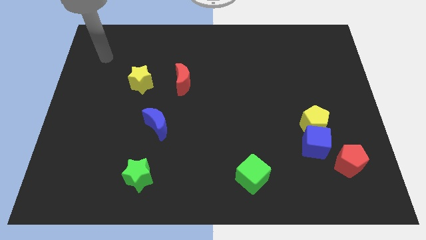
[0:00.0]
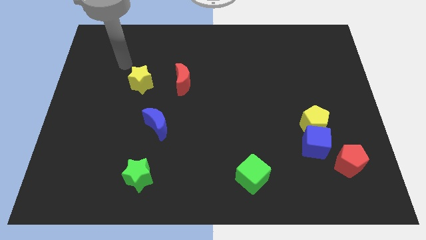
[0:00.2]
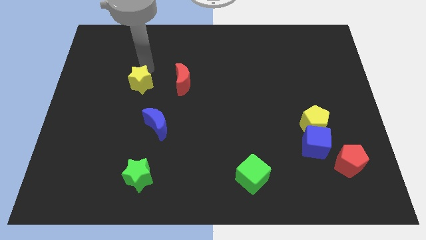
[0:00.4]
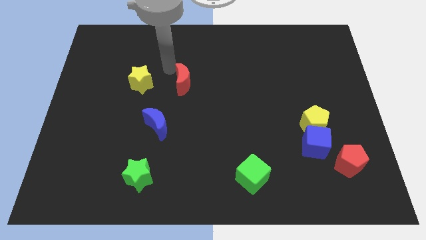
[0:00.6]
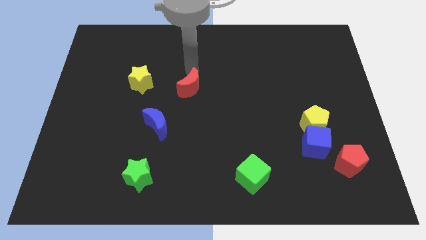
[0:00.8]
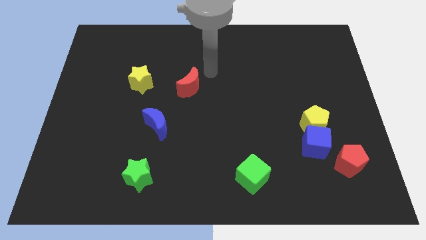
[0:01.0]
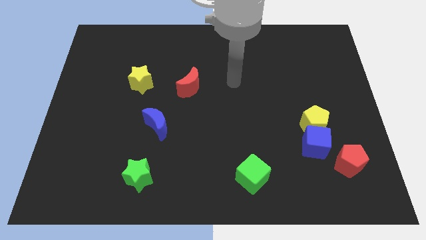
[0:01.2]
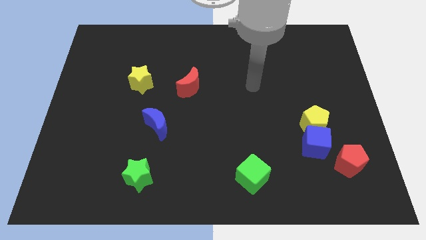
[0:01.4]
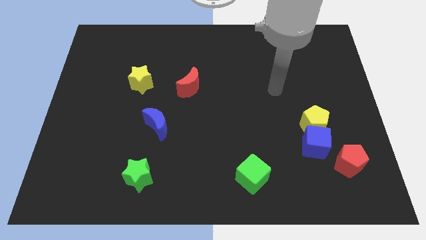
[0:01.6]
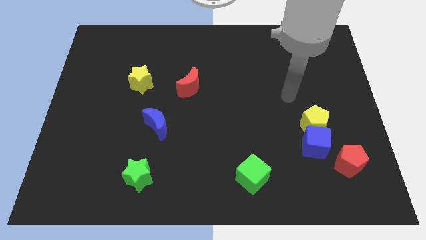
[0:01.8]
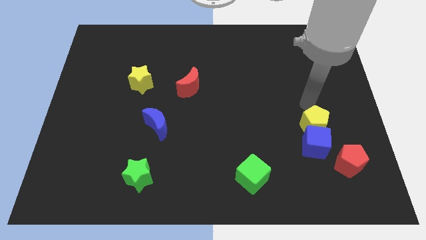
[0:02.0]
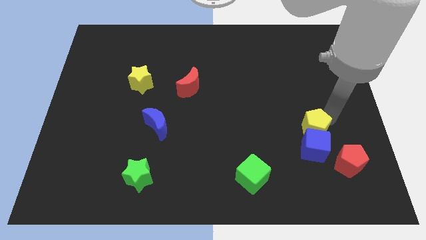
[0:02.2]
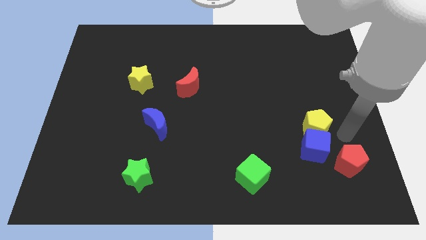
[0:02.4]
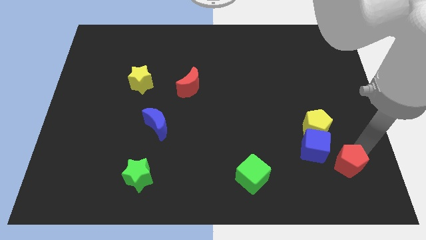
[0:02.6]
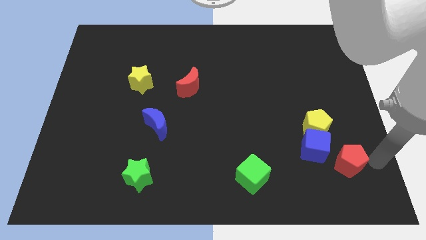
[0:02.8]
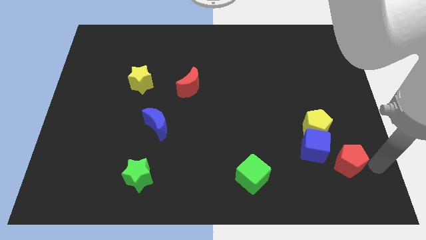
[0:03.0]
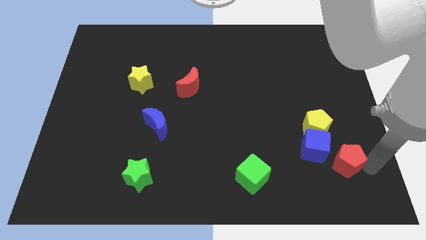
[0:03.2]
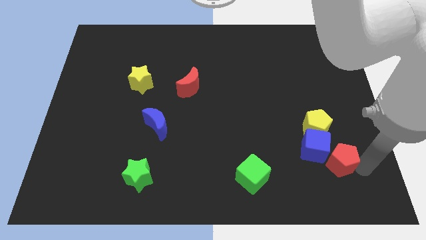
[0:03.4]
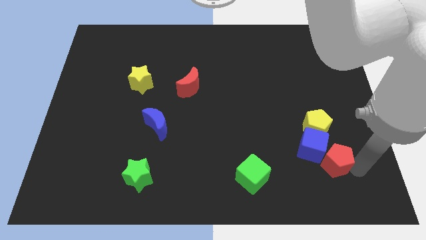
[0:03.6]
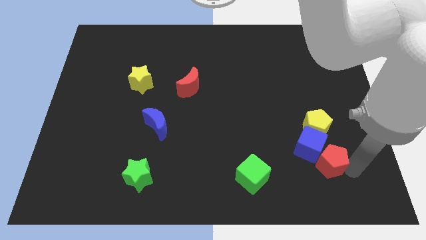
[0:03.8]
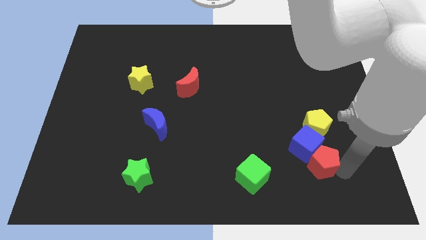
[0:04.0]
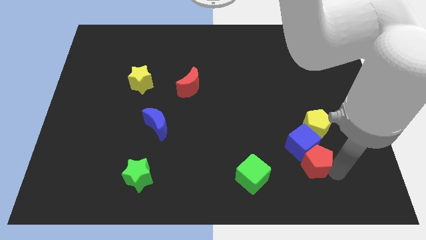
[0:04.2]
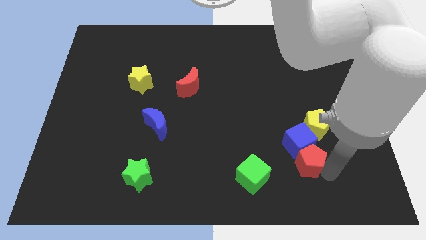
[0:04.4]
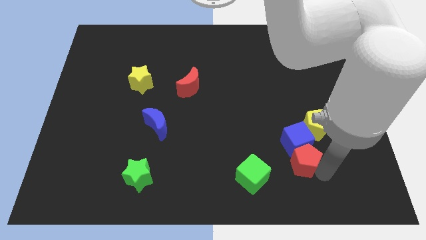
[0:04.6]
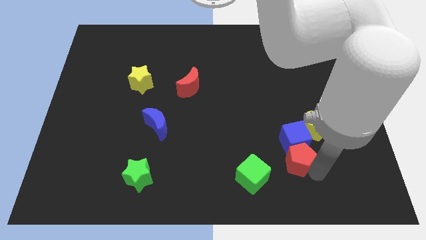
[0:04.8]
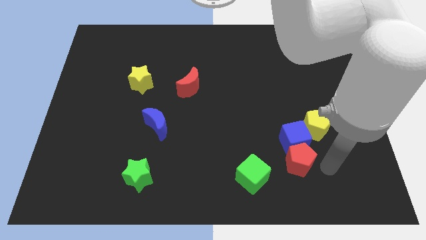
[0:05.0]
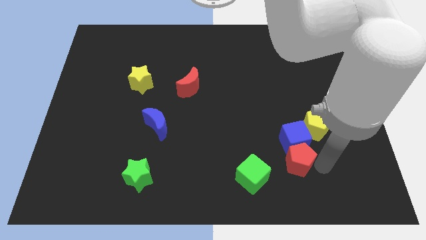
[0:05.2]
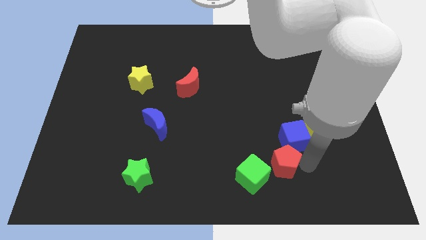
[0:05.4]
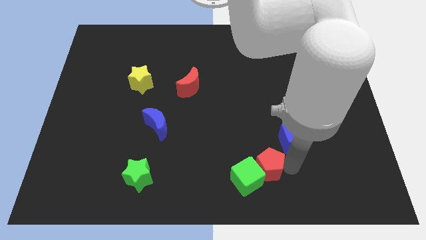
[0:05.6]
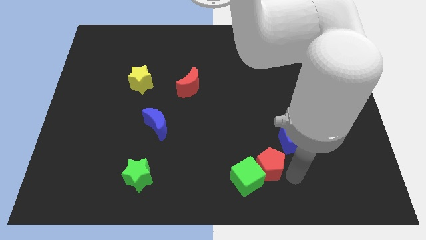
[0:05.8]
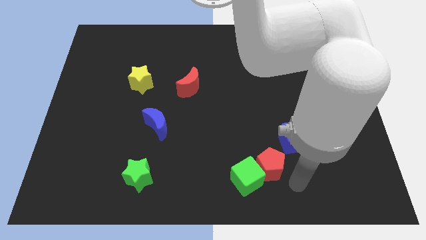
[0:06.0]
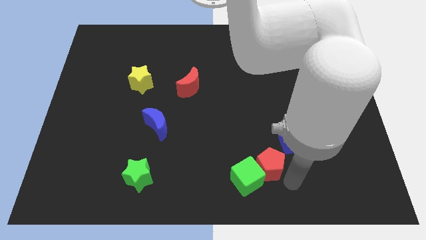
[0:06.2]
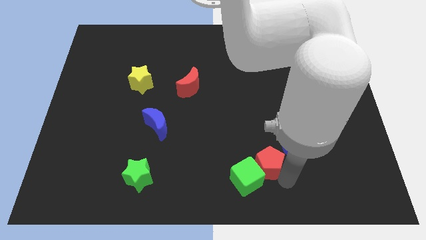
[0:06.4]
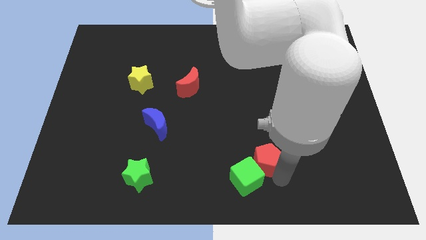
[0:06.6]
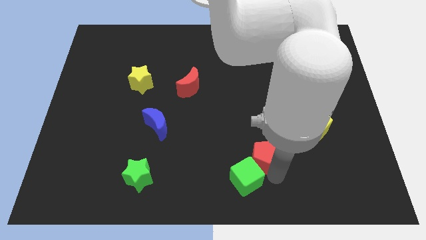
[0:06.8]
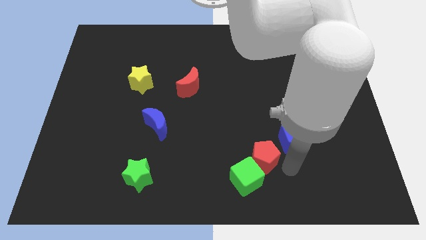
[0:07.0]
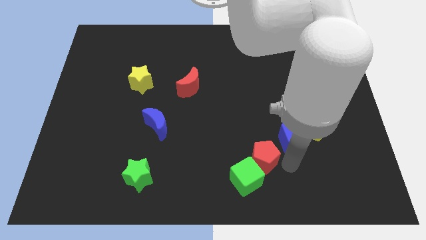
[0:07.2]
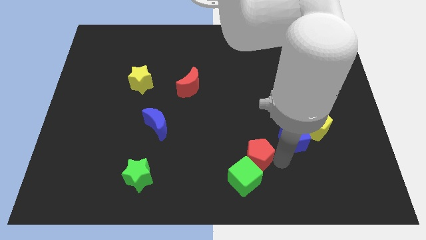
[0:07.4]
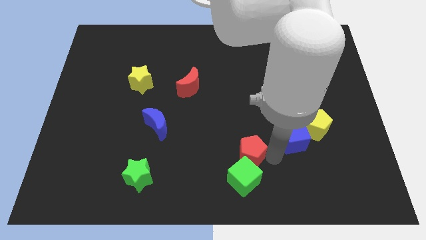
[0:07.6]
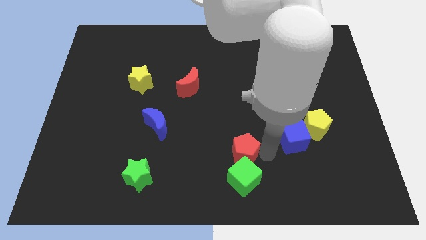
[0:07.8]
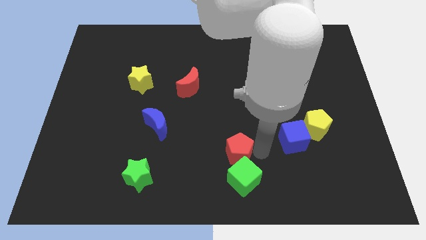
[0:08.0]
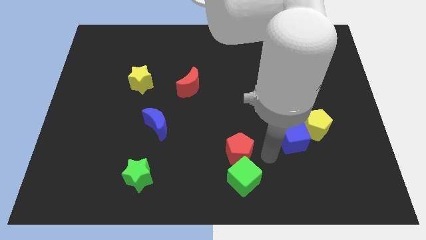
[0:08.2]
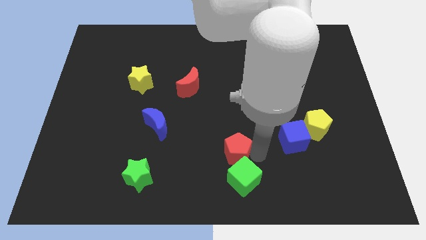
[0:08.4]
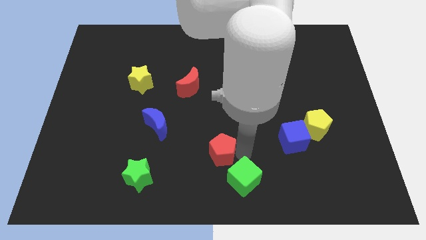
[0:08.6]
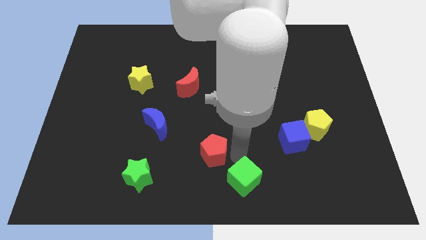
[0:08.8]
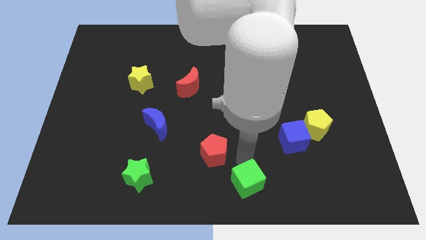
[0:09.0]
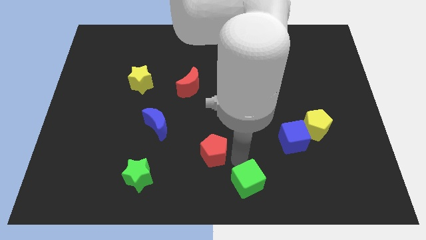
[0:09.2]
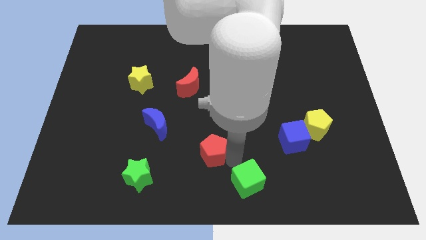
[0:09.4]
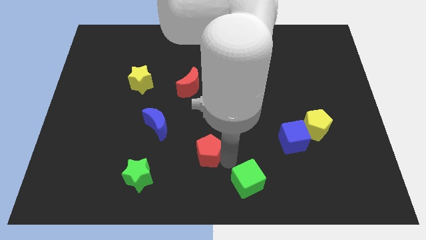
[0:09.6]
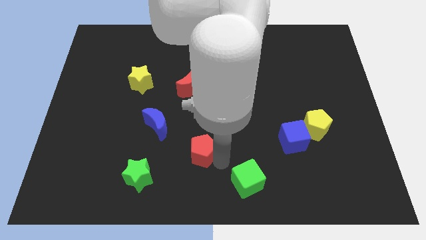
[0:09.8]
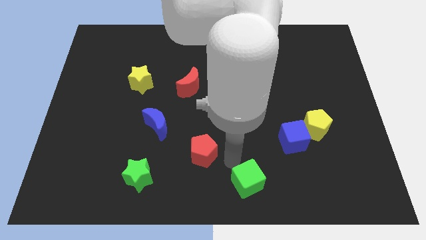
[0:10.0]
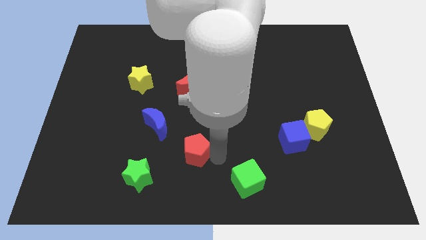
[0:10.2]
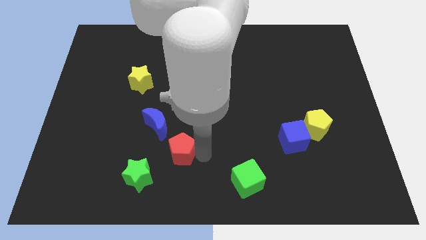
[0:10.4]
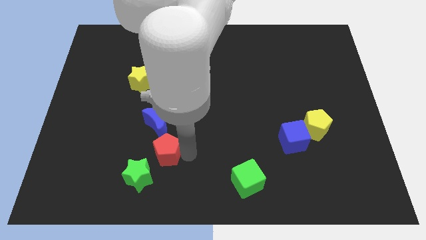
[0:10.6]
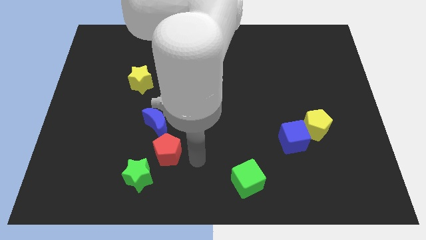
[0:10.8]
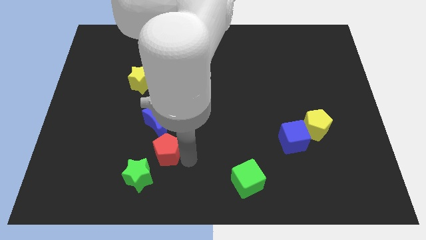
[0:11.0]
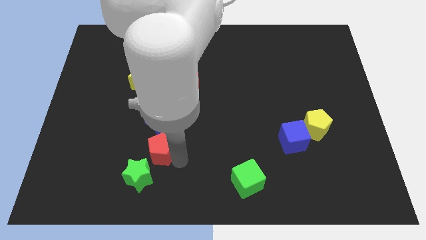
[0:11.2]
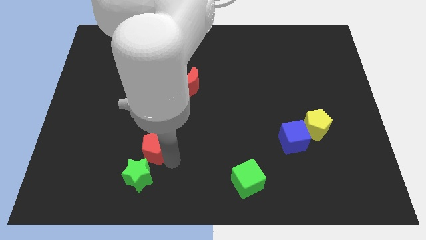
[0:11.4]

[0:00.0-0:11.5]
push the red pentagon diagonally down and to the left of the blue moon

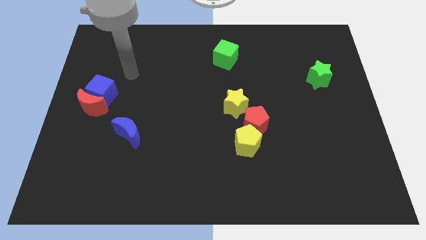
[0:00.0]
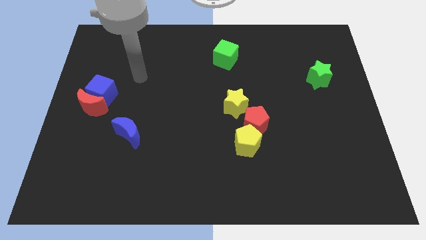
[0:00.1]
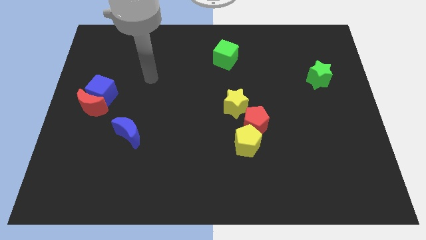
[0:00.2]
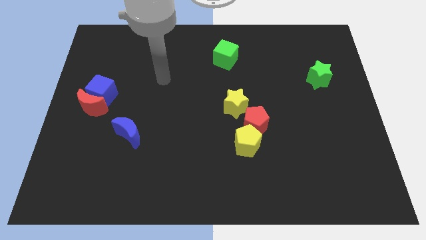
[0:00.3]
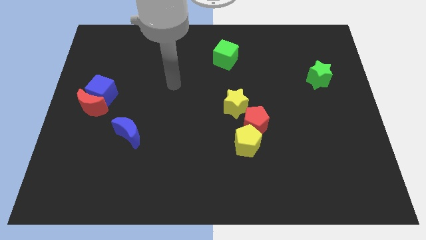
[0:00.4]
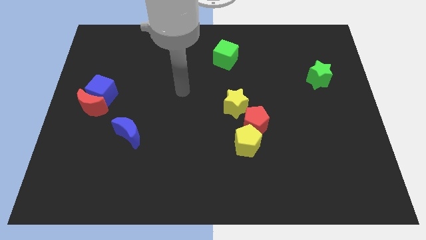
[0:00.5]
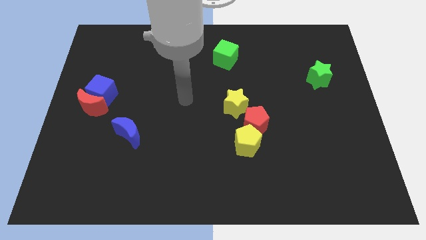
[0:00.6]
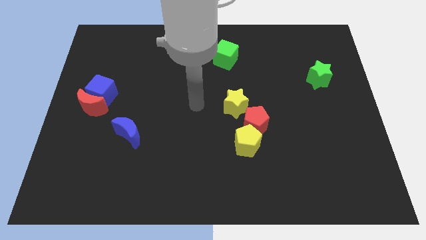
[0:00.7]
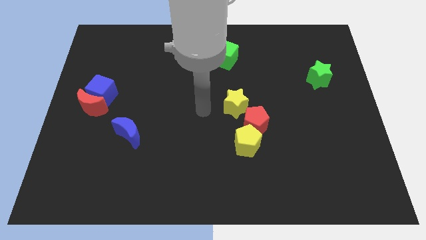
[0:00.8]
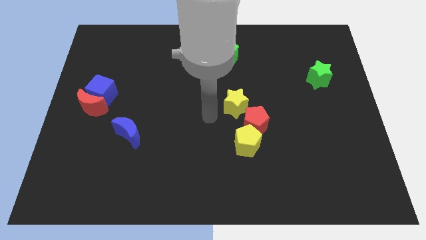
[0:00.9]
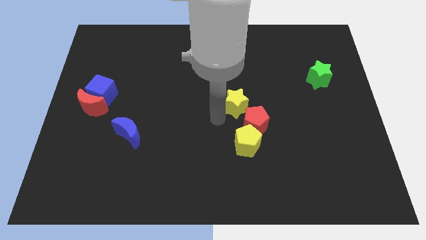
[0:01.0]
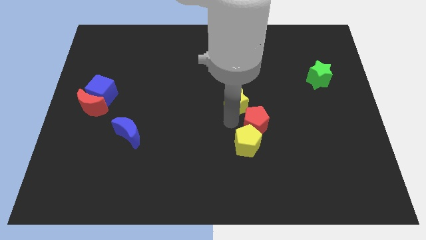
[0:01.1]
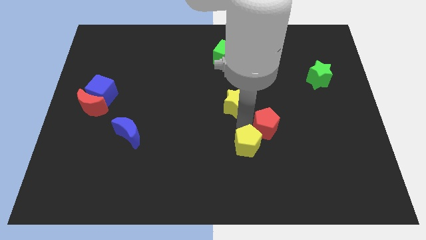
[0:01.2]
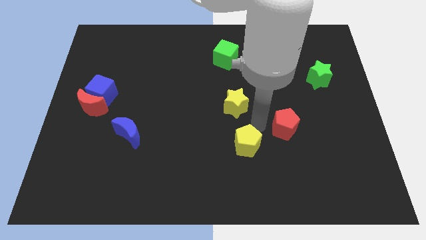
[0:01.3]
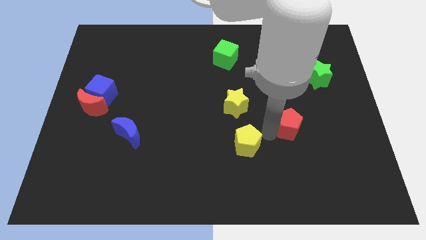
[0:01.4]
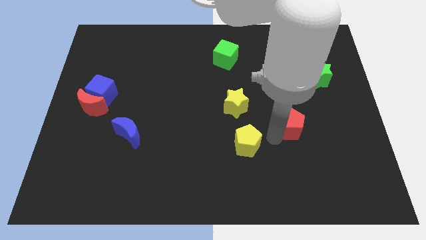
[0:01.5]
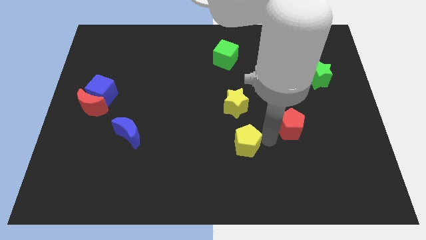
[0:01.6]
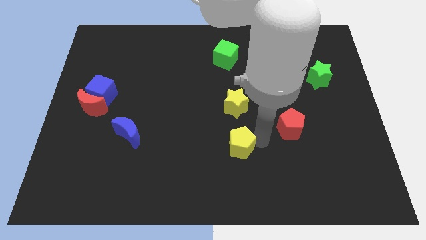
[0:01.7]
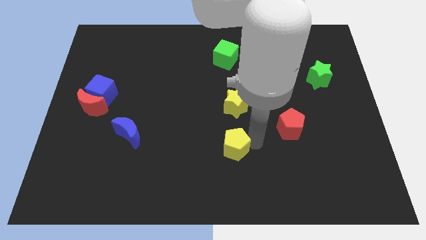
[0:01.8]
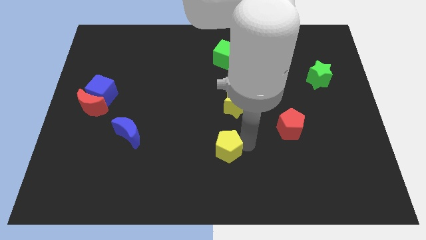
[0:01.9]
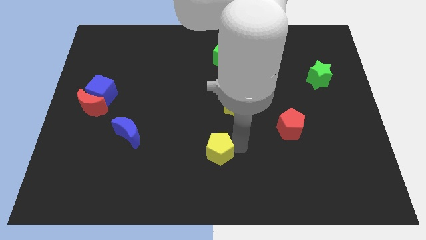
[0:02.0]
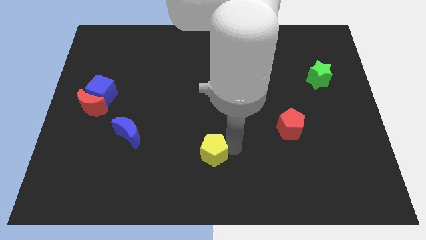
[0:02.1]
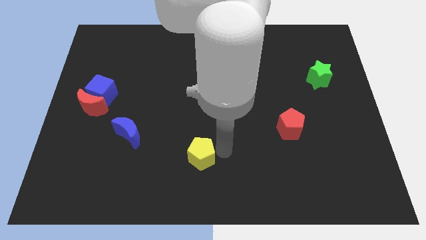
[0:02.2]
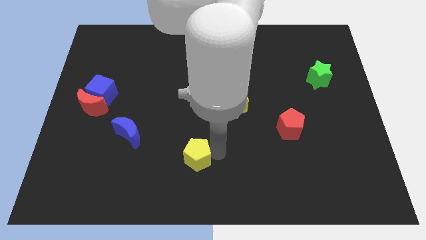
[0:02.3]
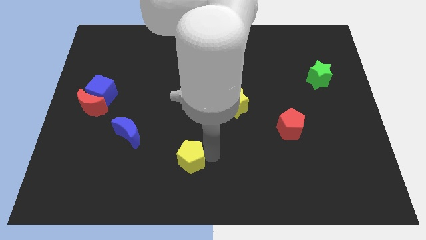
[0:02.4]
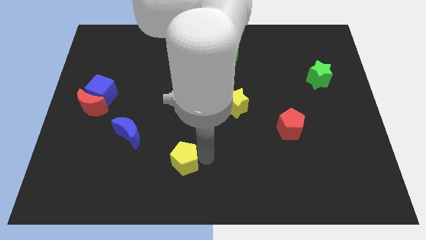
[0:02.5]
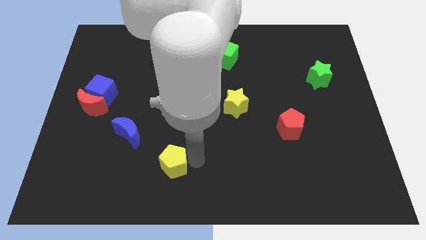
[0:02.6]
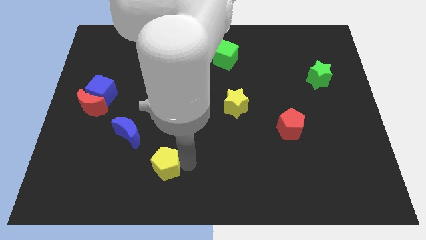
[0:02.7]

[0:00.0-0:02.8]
move the yellow pentagon to the bottom right of the blue moon
